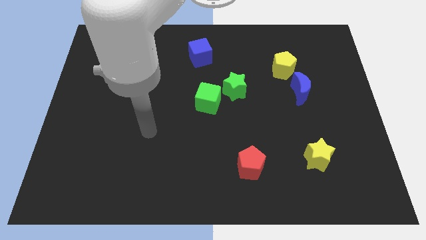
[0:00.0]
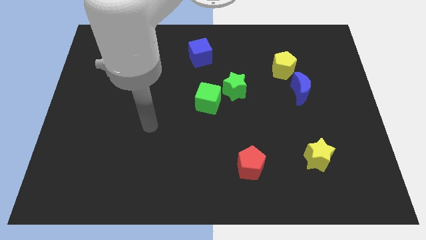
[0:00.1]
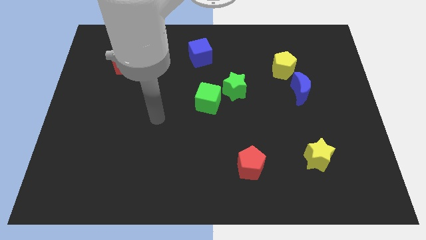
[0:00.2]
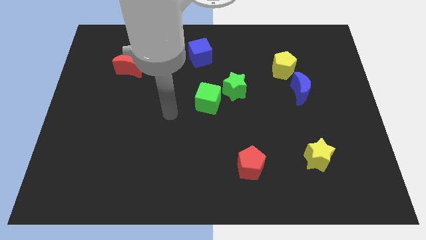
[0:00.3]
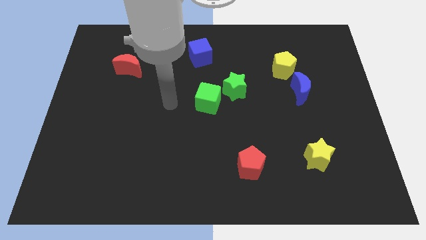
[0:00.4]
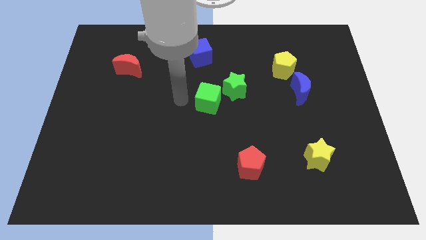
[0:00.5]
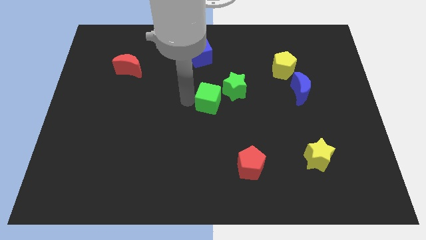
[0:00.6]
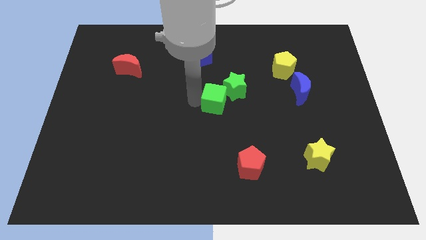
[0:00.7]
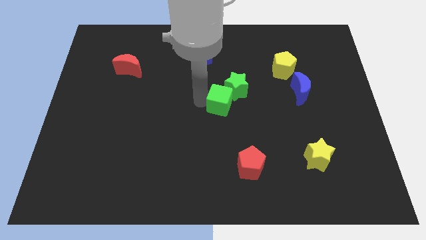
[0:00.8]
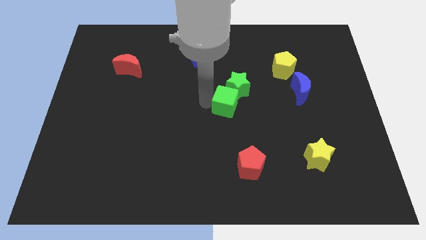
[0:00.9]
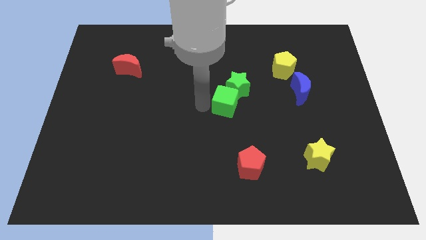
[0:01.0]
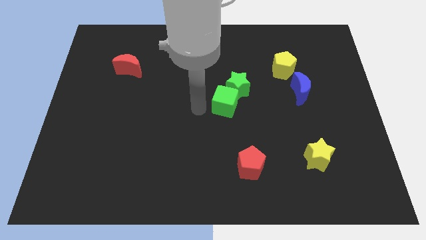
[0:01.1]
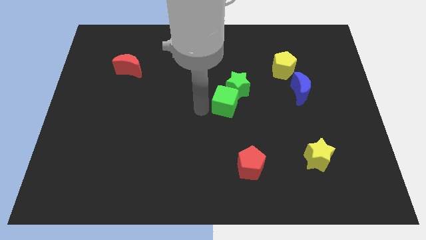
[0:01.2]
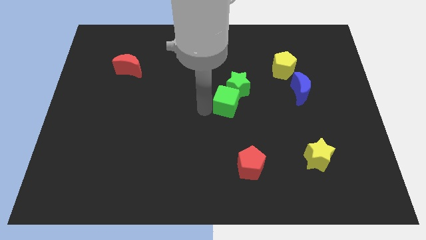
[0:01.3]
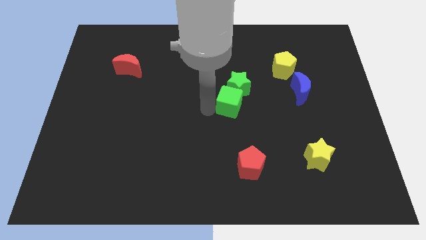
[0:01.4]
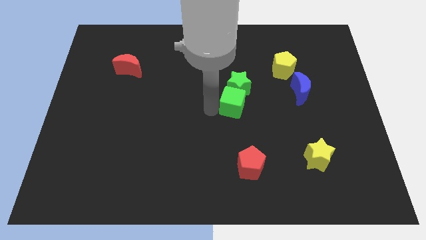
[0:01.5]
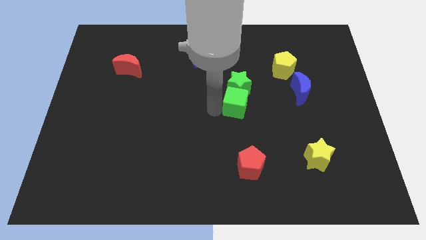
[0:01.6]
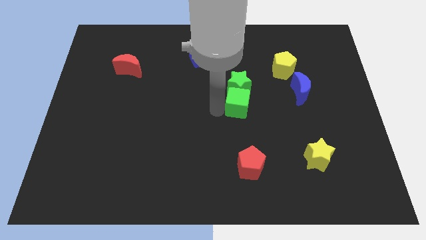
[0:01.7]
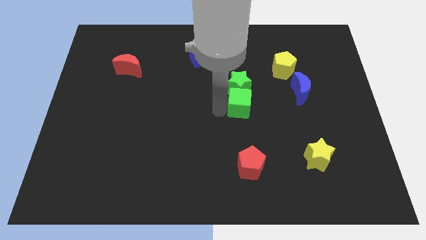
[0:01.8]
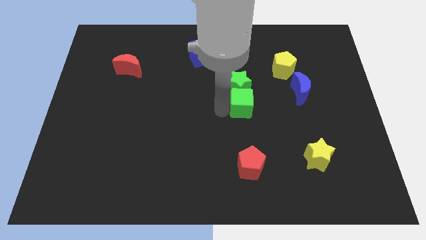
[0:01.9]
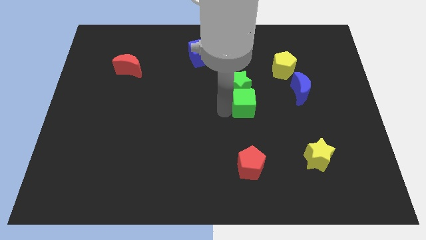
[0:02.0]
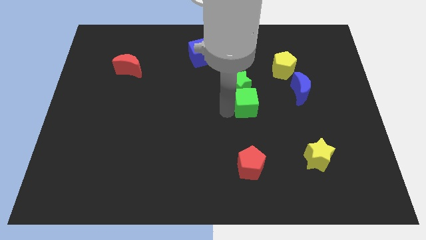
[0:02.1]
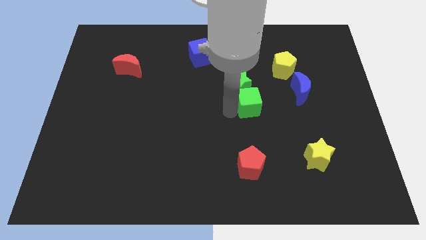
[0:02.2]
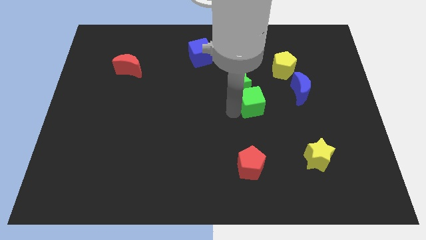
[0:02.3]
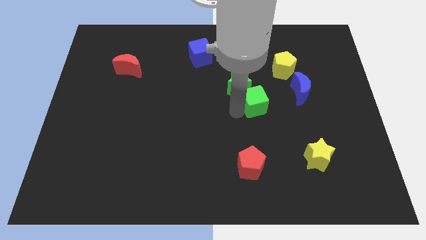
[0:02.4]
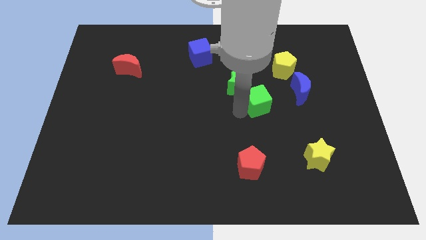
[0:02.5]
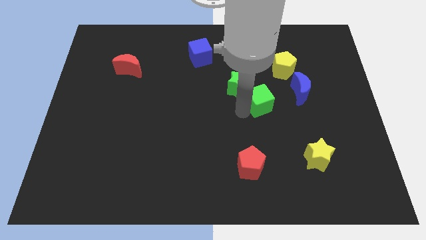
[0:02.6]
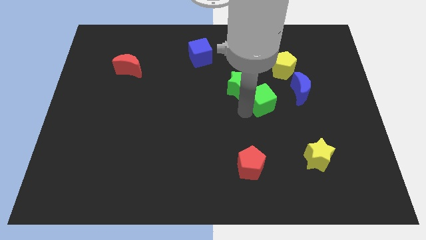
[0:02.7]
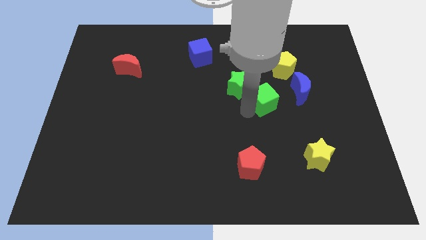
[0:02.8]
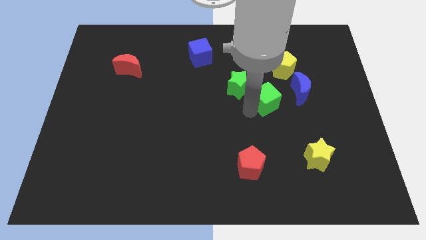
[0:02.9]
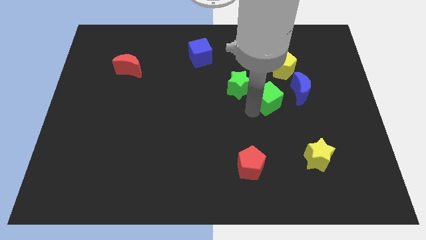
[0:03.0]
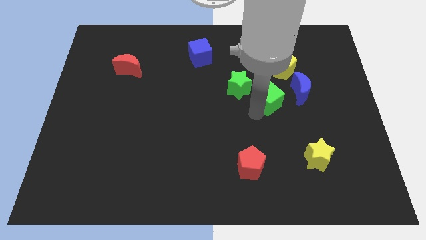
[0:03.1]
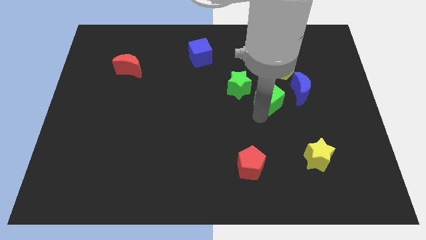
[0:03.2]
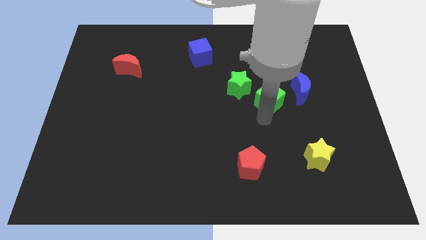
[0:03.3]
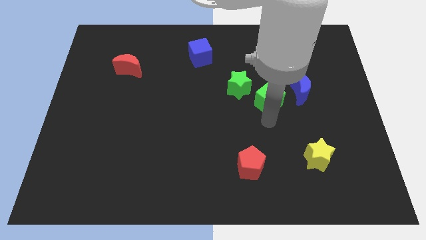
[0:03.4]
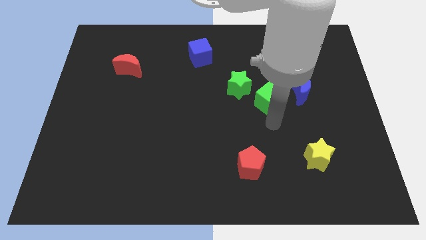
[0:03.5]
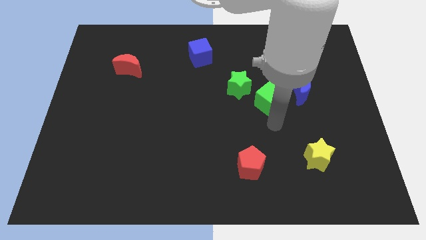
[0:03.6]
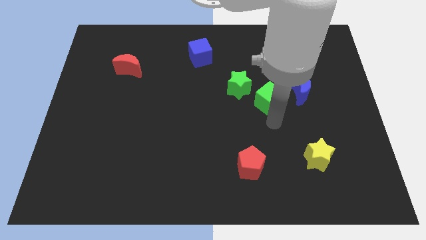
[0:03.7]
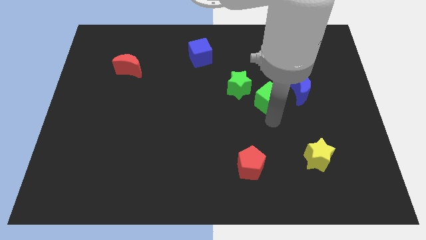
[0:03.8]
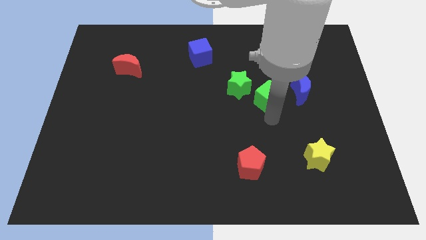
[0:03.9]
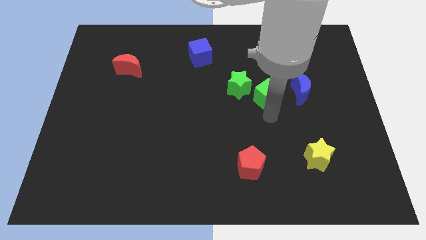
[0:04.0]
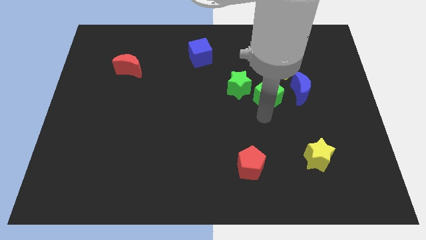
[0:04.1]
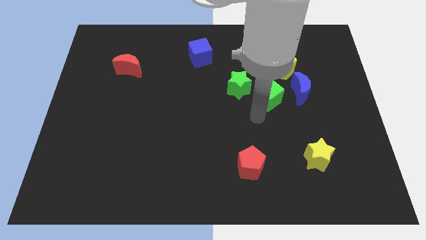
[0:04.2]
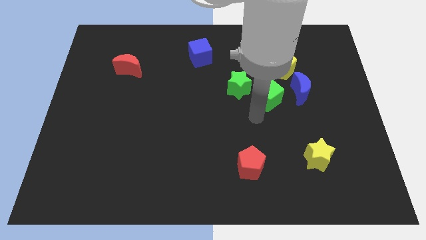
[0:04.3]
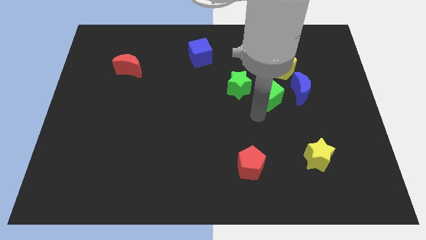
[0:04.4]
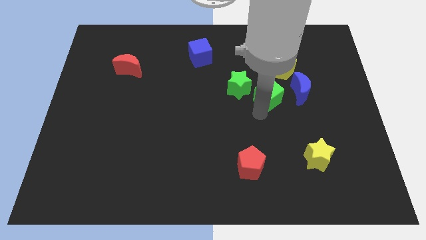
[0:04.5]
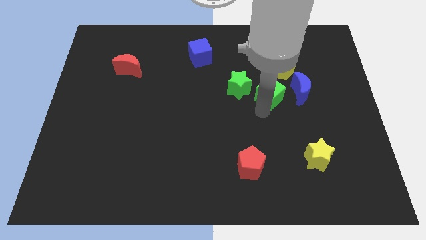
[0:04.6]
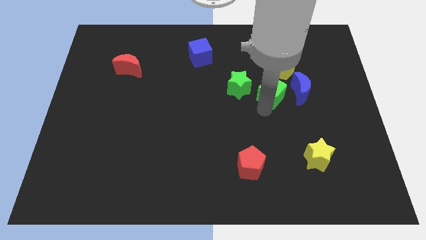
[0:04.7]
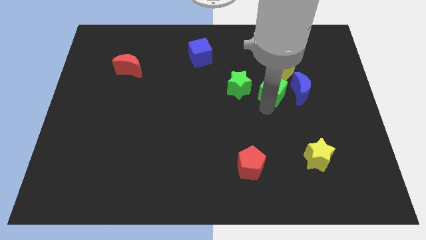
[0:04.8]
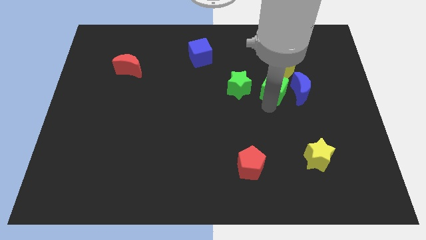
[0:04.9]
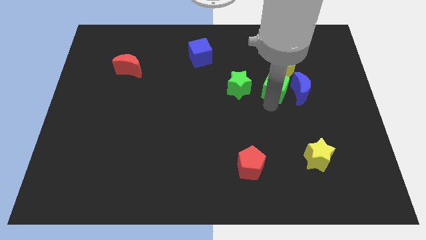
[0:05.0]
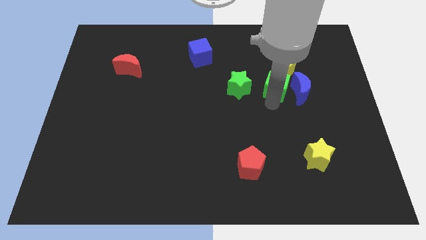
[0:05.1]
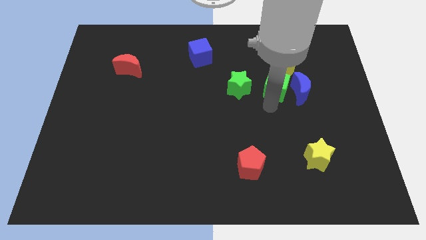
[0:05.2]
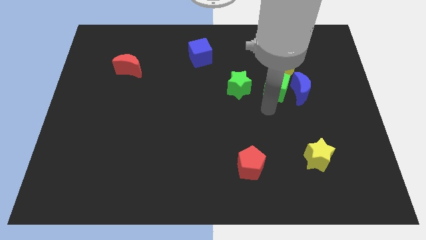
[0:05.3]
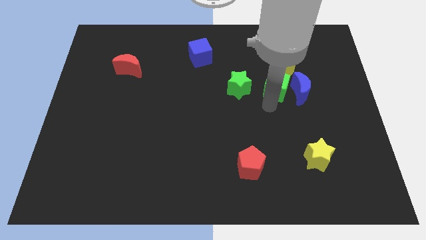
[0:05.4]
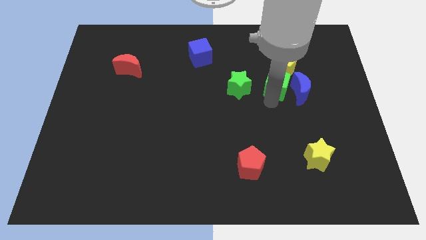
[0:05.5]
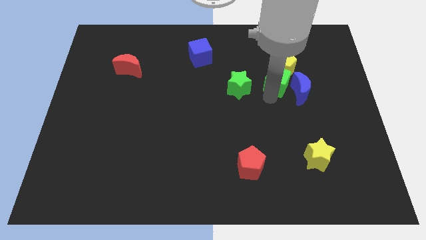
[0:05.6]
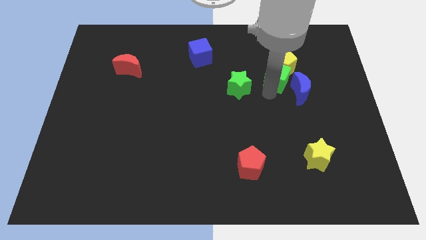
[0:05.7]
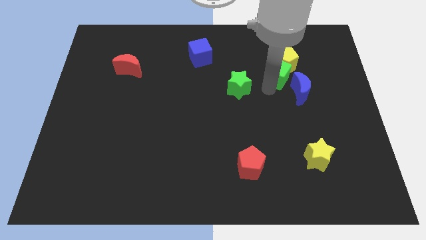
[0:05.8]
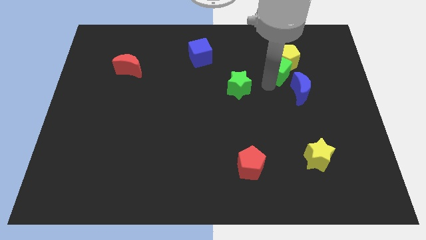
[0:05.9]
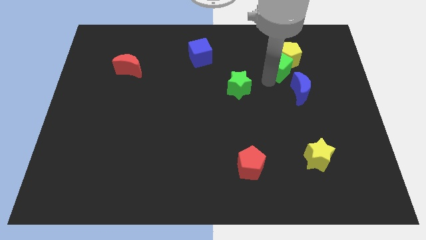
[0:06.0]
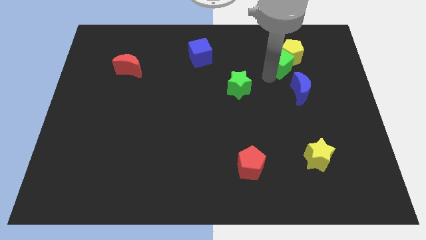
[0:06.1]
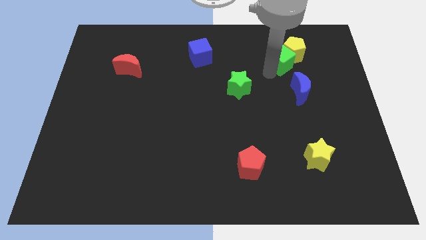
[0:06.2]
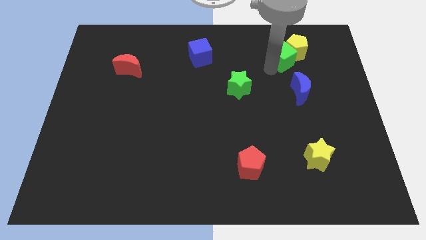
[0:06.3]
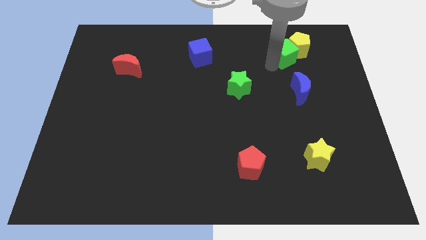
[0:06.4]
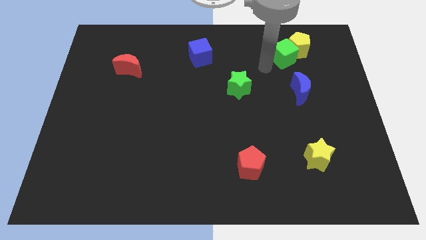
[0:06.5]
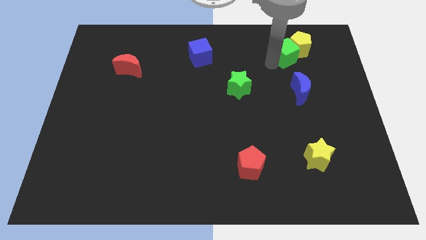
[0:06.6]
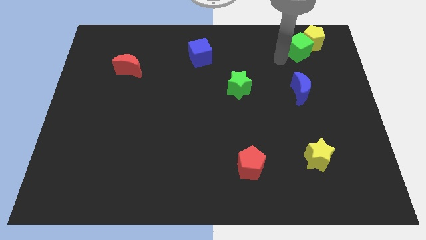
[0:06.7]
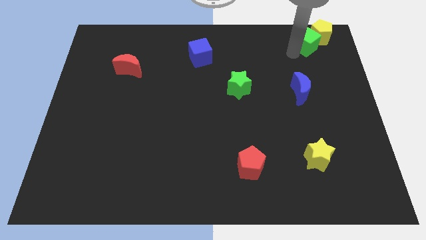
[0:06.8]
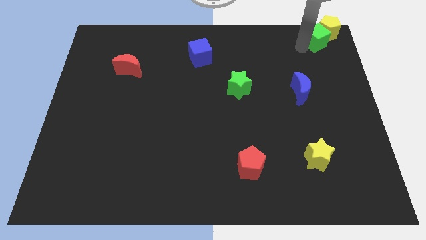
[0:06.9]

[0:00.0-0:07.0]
move the green cube to the top right of the board
